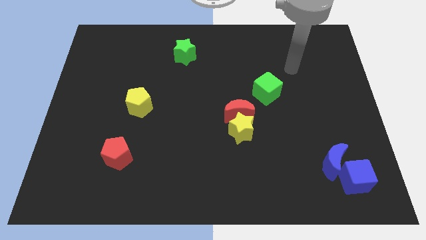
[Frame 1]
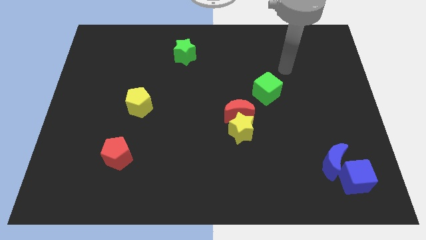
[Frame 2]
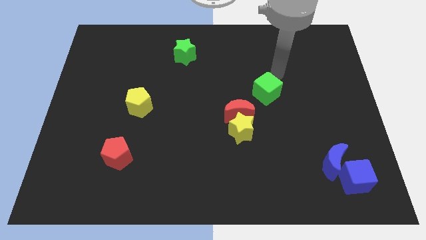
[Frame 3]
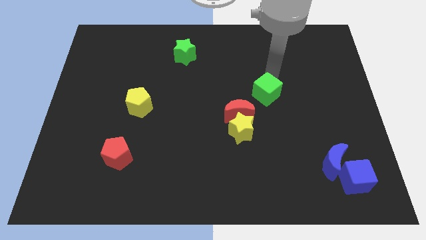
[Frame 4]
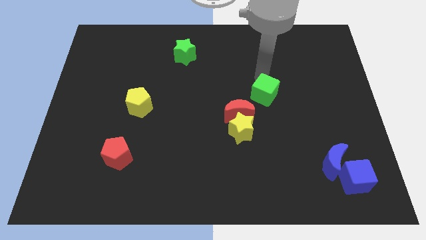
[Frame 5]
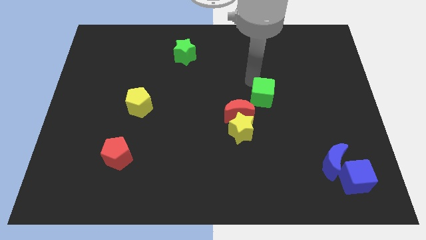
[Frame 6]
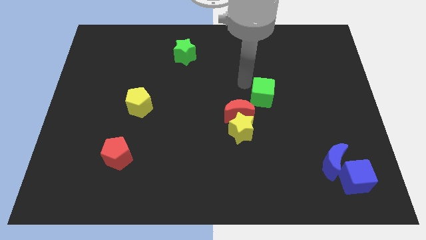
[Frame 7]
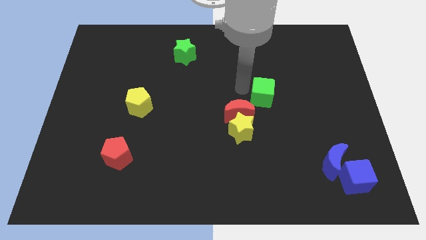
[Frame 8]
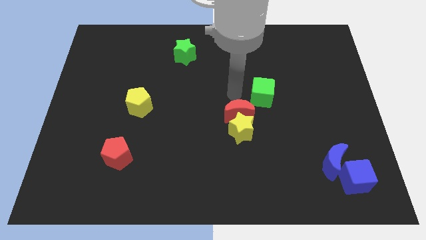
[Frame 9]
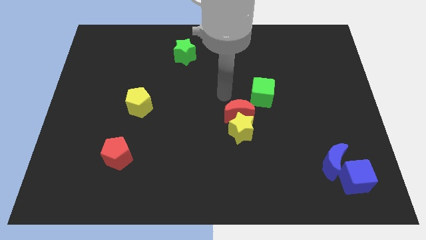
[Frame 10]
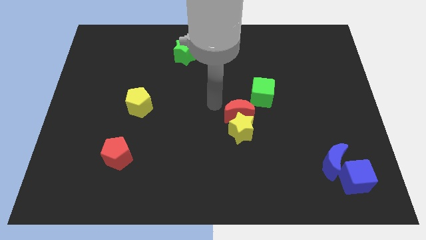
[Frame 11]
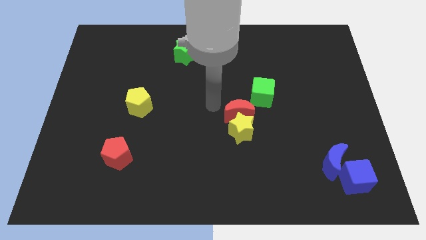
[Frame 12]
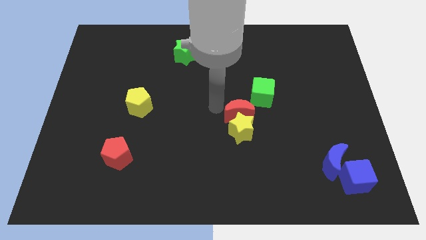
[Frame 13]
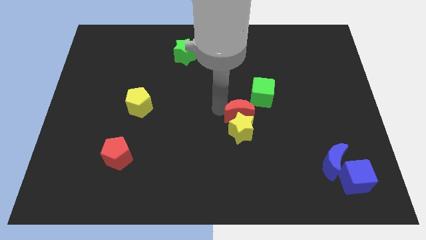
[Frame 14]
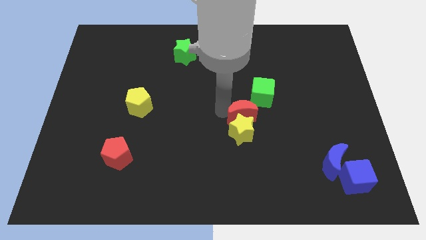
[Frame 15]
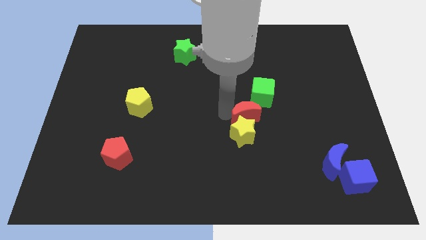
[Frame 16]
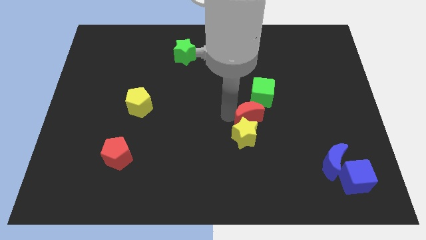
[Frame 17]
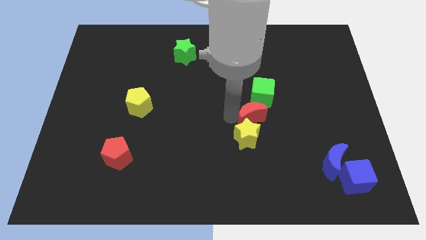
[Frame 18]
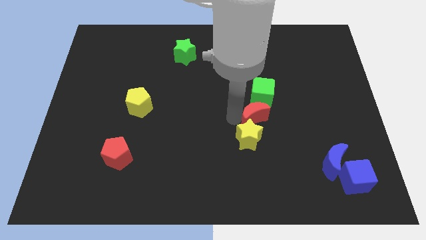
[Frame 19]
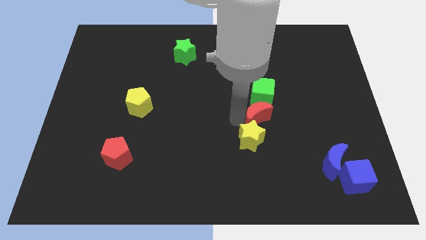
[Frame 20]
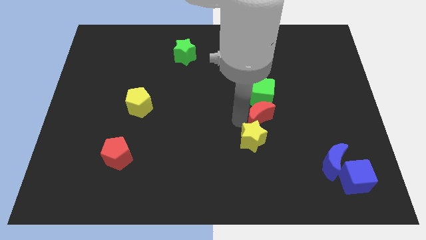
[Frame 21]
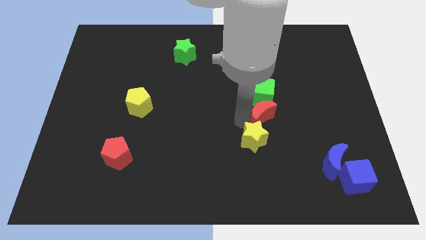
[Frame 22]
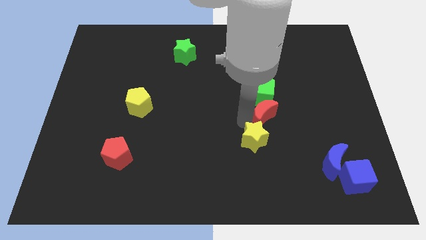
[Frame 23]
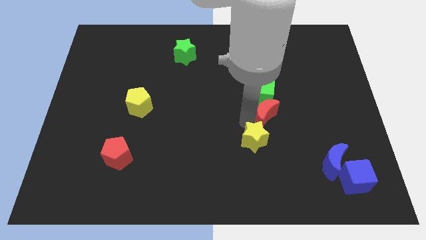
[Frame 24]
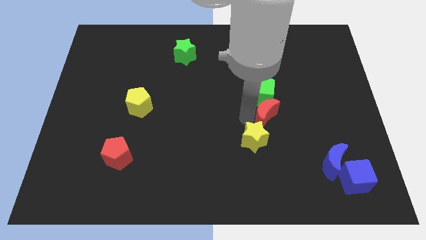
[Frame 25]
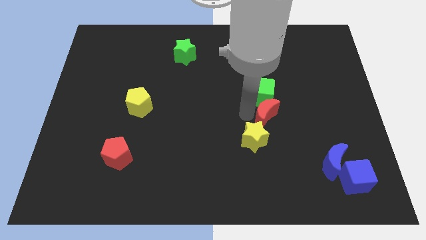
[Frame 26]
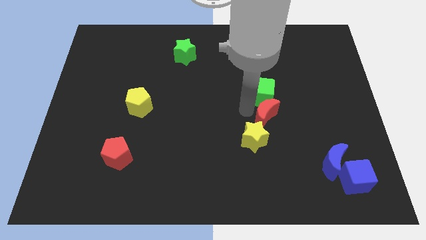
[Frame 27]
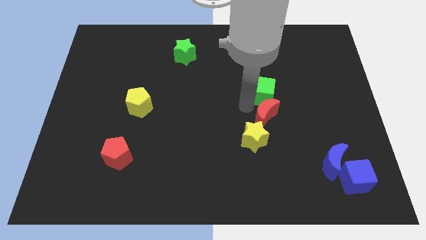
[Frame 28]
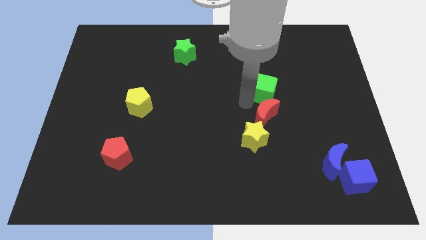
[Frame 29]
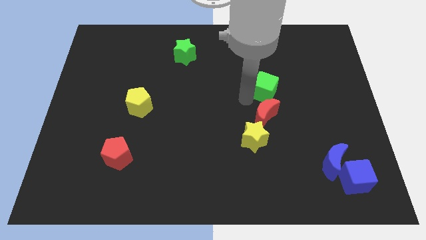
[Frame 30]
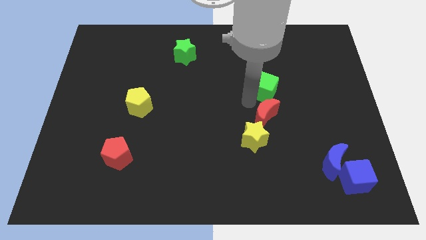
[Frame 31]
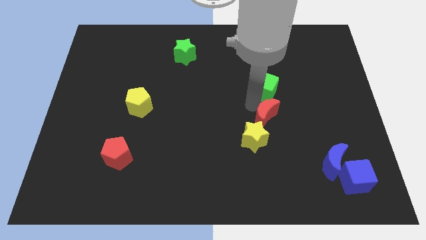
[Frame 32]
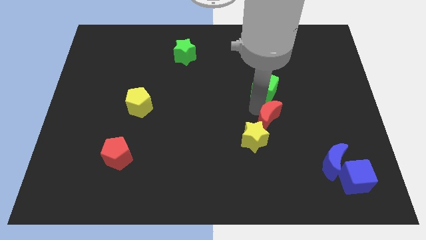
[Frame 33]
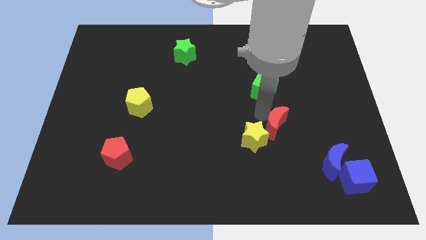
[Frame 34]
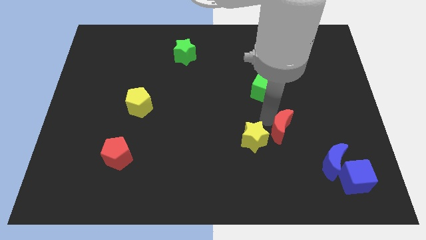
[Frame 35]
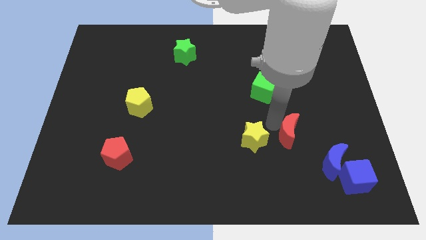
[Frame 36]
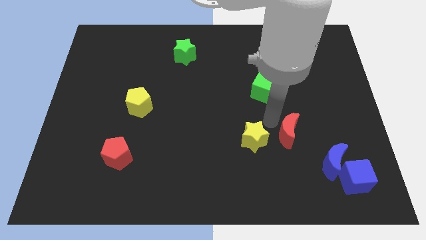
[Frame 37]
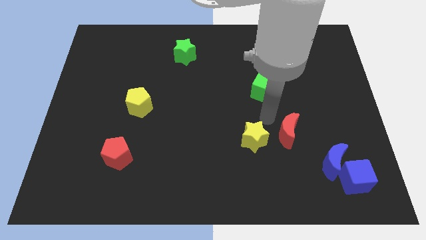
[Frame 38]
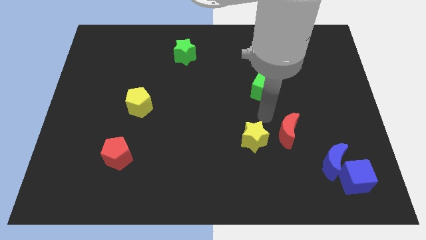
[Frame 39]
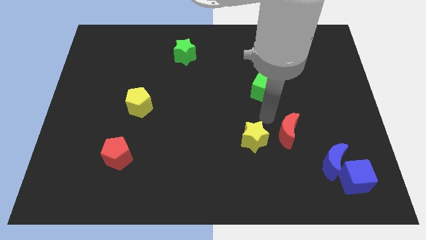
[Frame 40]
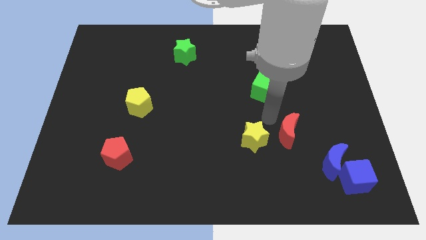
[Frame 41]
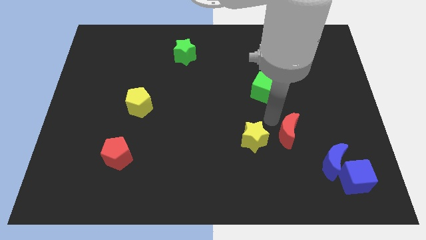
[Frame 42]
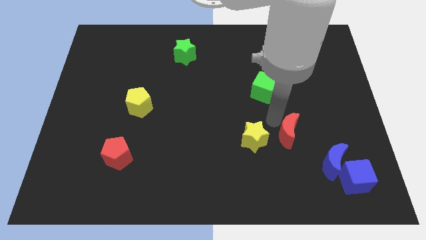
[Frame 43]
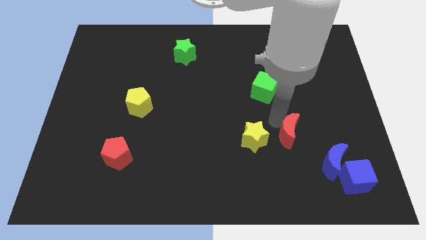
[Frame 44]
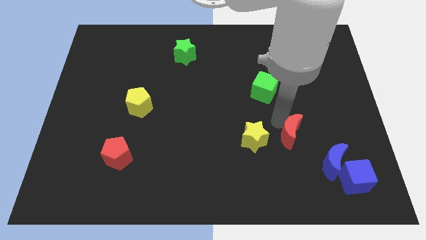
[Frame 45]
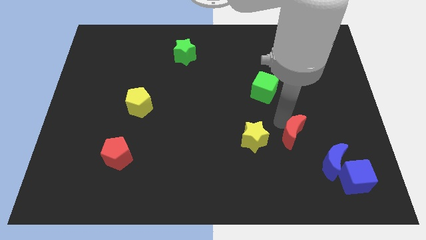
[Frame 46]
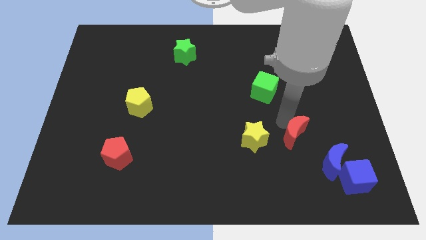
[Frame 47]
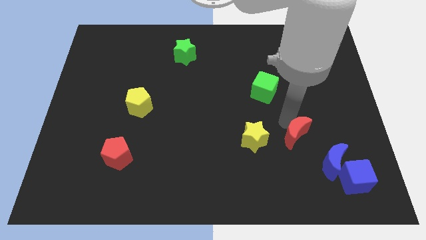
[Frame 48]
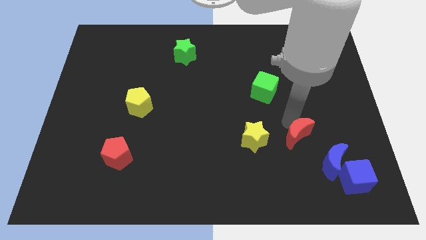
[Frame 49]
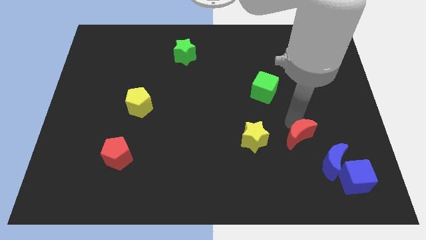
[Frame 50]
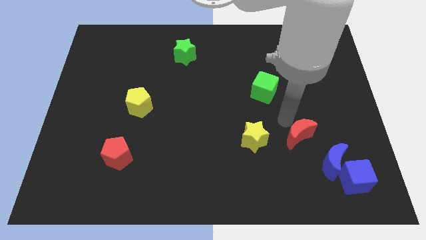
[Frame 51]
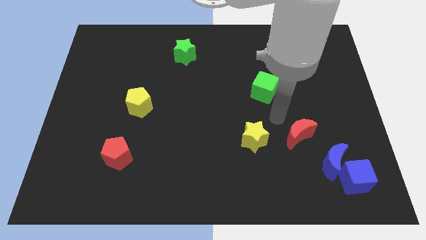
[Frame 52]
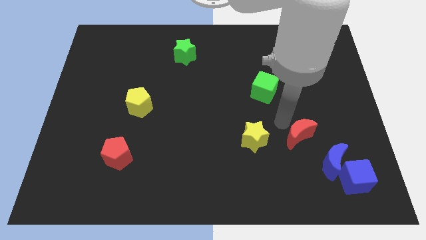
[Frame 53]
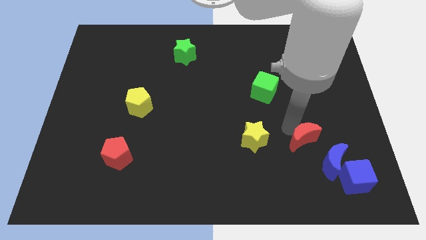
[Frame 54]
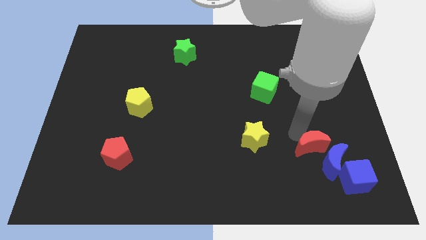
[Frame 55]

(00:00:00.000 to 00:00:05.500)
push the red moon towards the blue moon

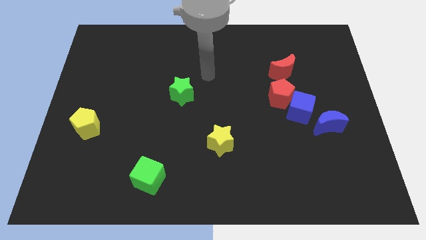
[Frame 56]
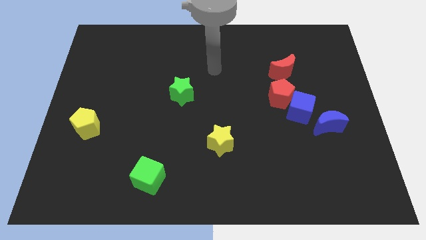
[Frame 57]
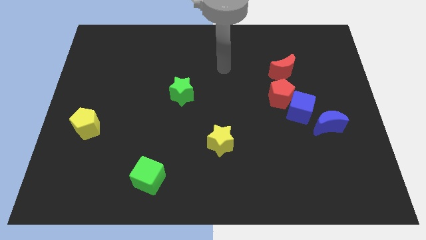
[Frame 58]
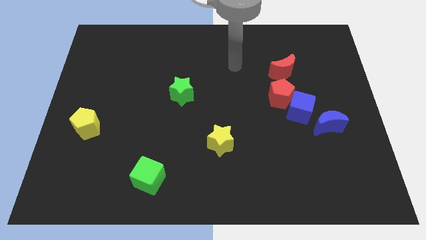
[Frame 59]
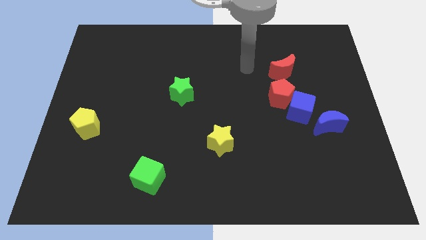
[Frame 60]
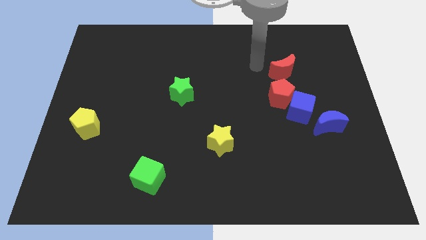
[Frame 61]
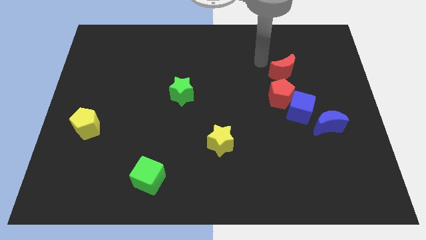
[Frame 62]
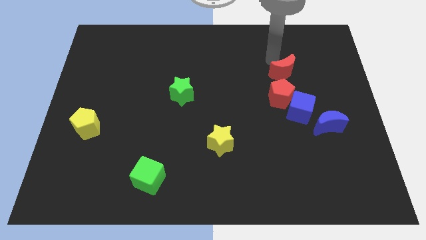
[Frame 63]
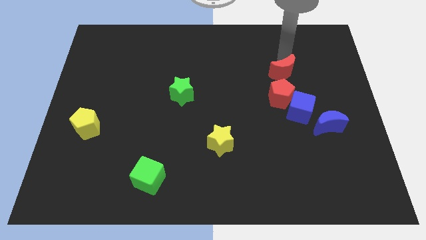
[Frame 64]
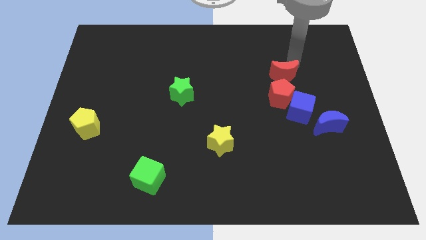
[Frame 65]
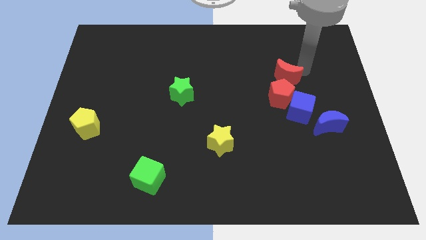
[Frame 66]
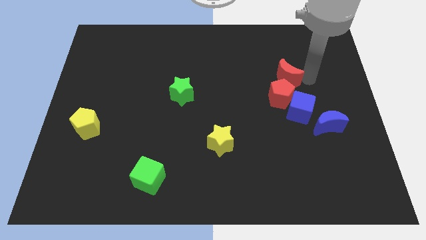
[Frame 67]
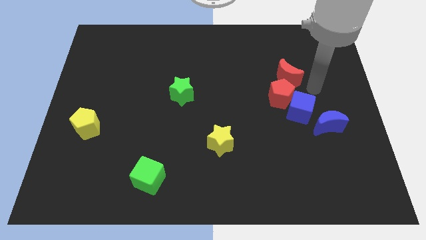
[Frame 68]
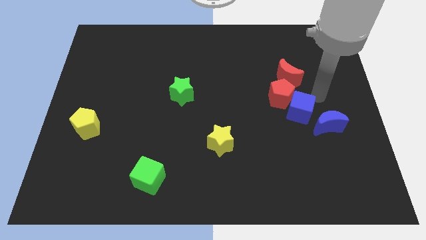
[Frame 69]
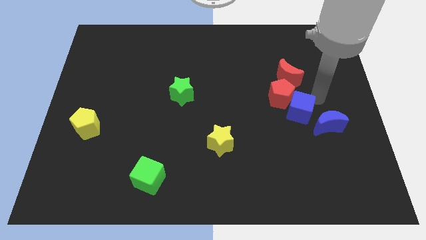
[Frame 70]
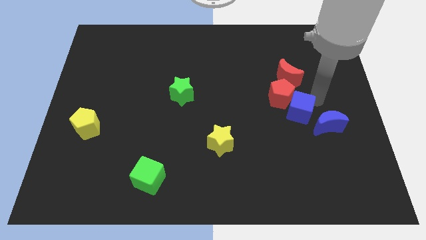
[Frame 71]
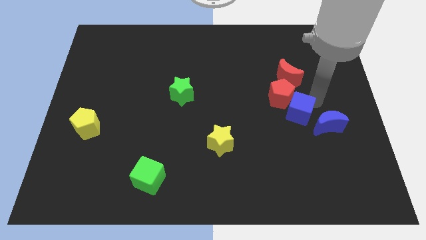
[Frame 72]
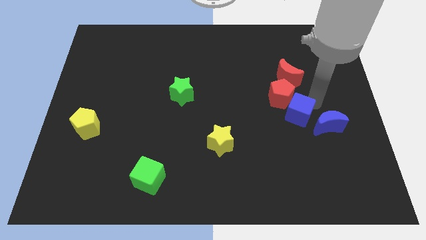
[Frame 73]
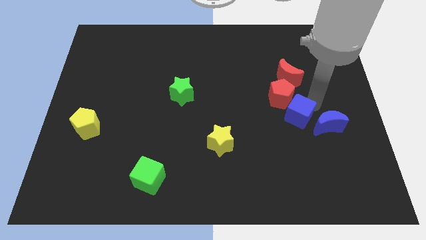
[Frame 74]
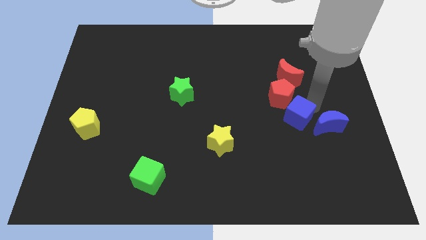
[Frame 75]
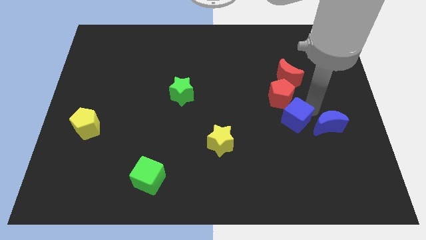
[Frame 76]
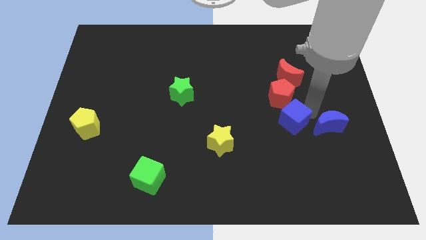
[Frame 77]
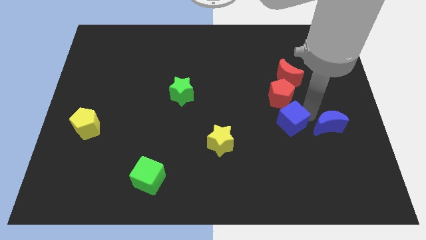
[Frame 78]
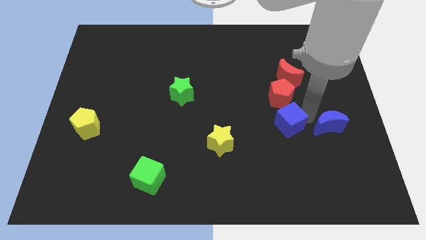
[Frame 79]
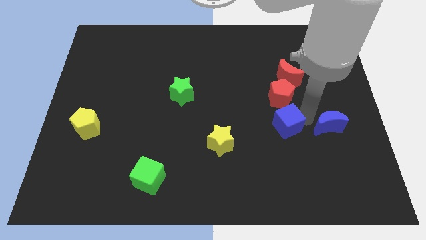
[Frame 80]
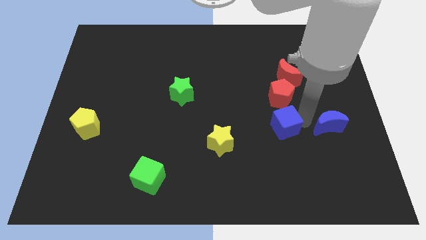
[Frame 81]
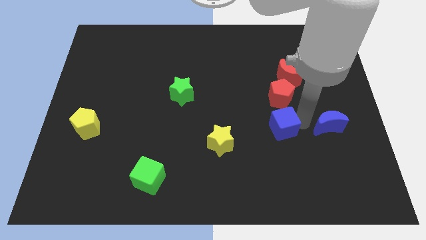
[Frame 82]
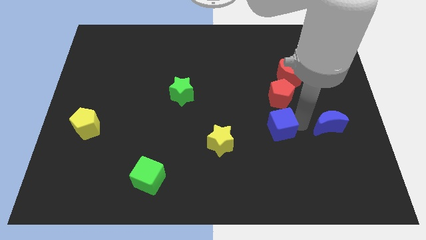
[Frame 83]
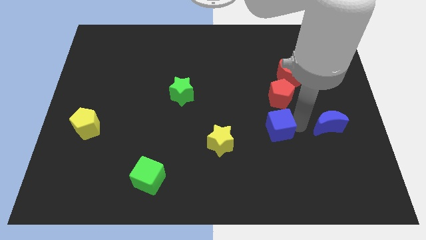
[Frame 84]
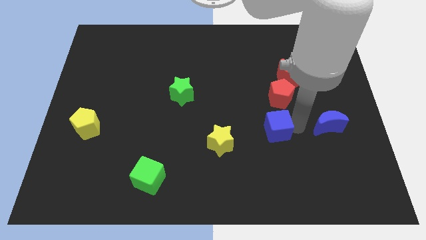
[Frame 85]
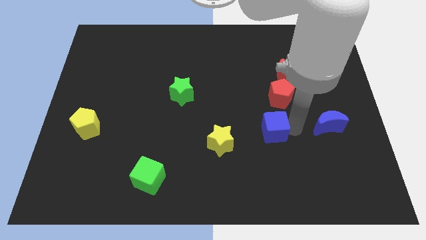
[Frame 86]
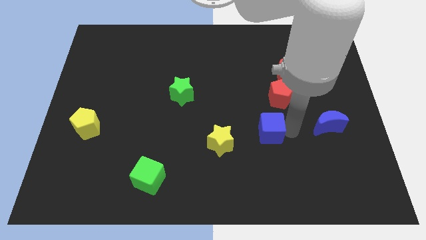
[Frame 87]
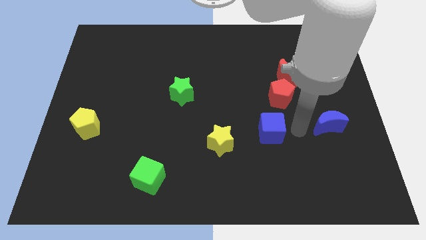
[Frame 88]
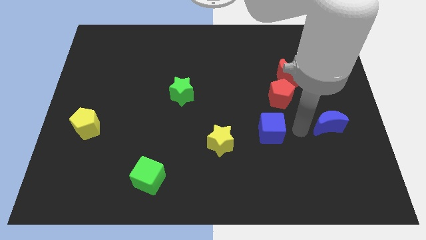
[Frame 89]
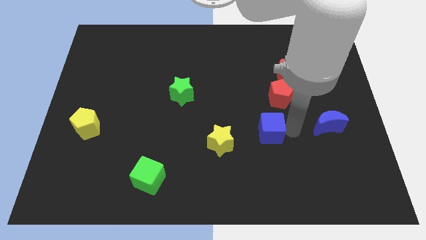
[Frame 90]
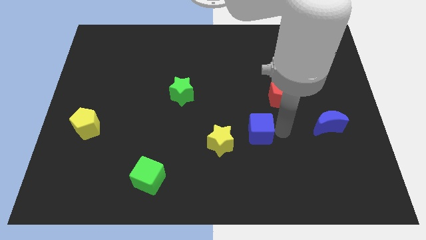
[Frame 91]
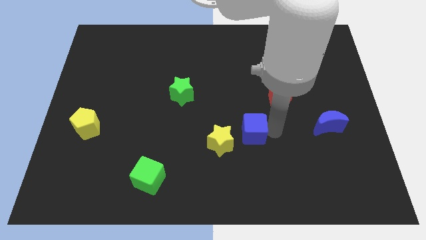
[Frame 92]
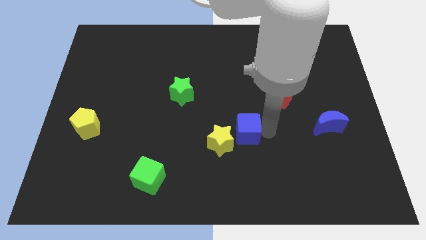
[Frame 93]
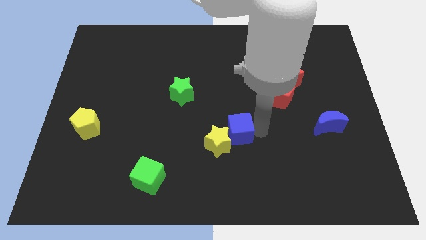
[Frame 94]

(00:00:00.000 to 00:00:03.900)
move the blue cube next to the yellow star
